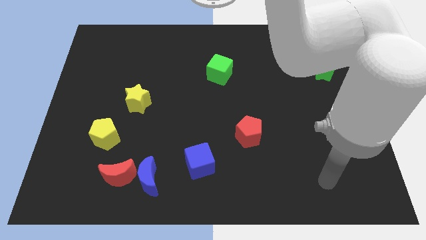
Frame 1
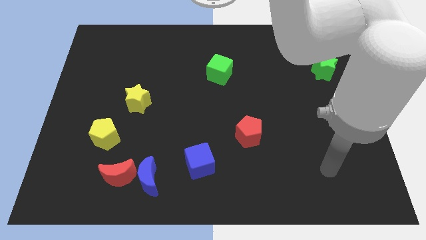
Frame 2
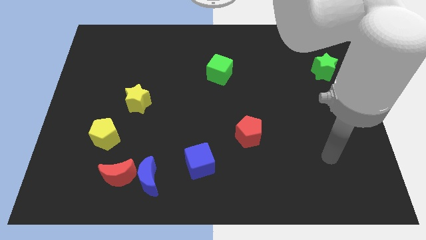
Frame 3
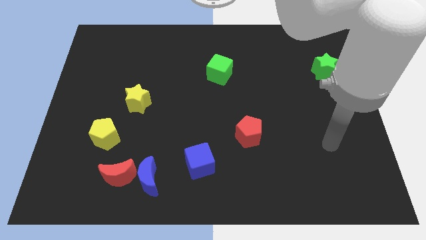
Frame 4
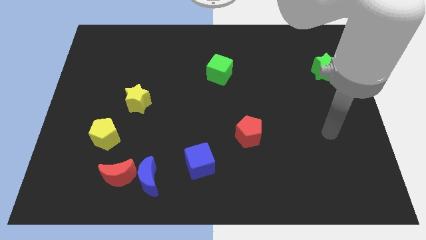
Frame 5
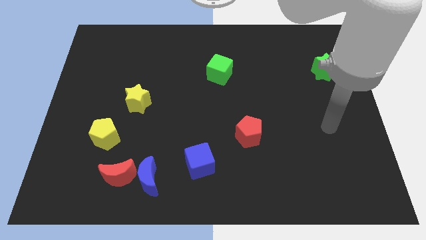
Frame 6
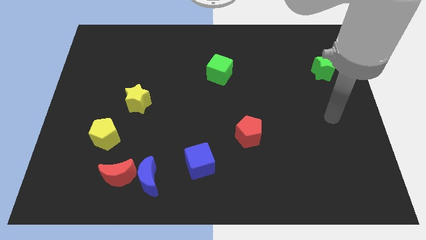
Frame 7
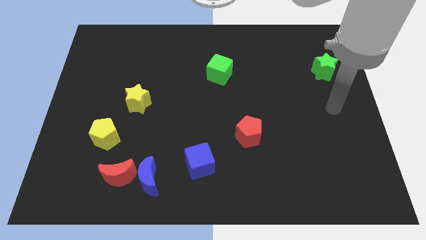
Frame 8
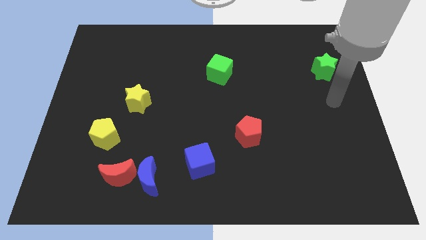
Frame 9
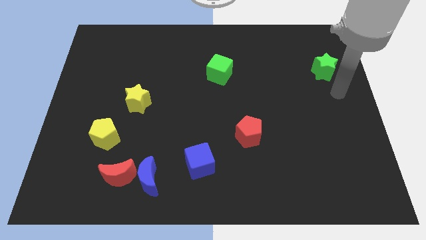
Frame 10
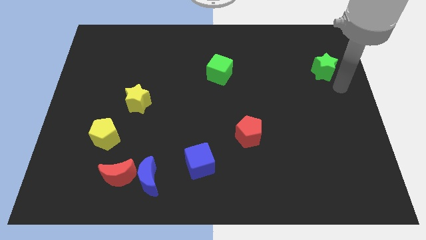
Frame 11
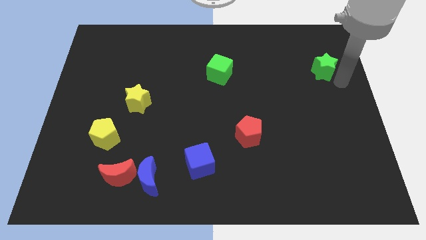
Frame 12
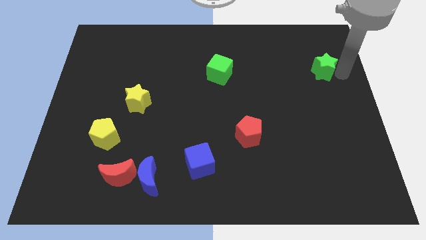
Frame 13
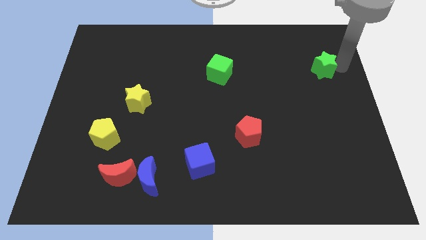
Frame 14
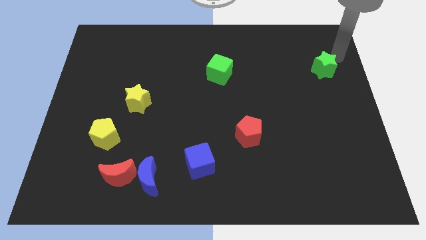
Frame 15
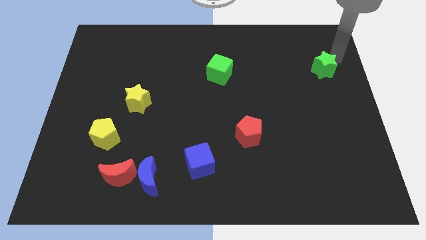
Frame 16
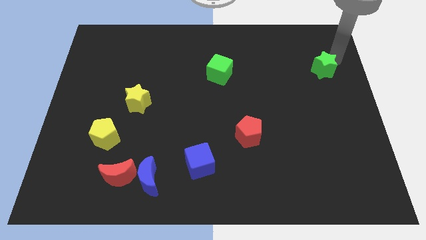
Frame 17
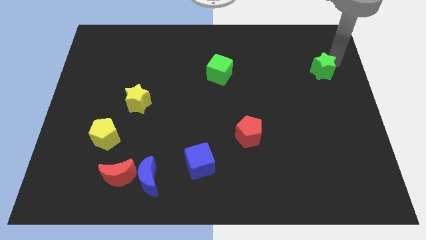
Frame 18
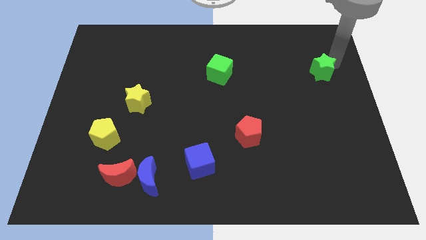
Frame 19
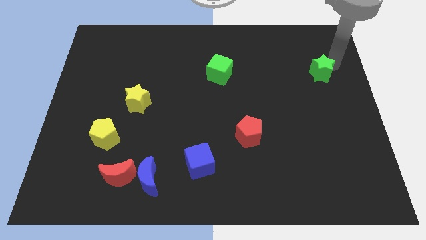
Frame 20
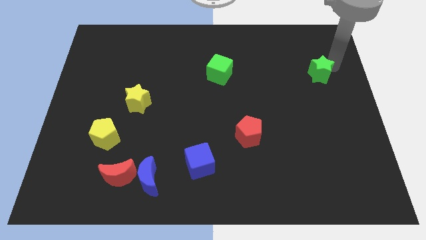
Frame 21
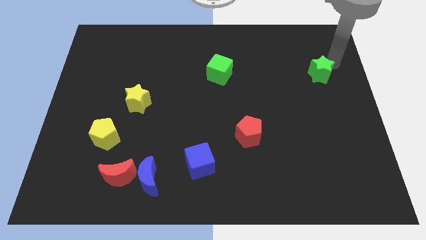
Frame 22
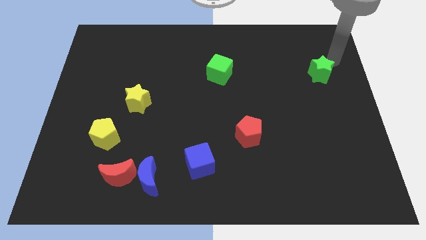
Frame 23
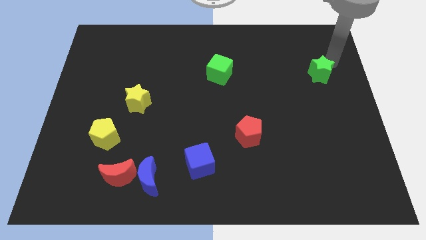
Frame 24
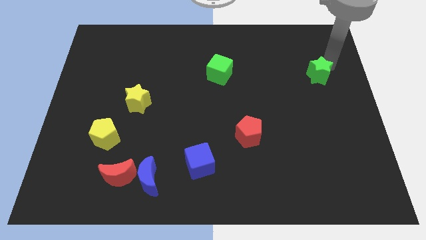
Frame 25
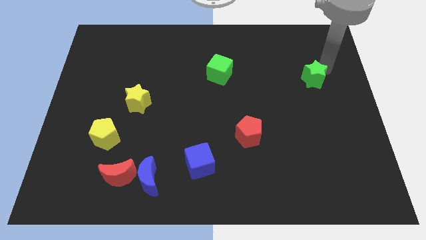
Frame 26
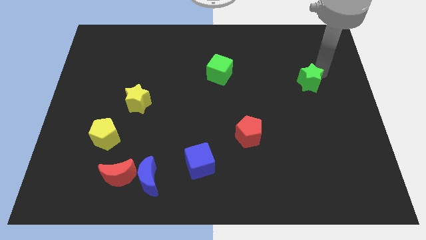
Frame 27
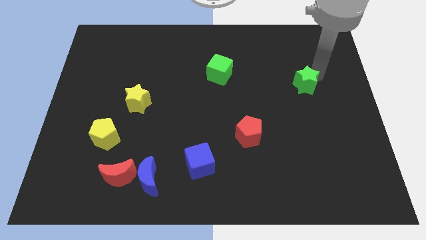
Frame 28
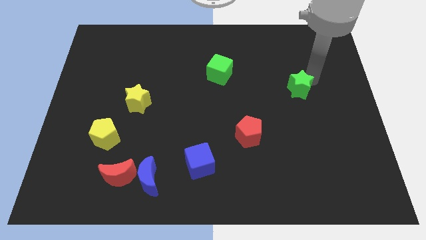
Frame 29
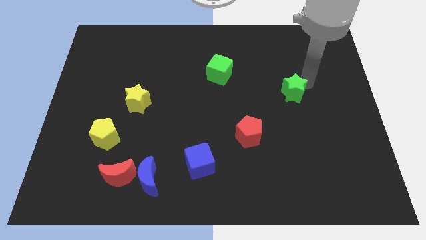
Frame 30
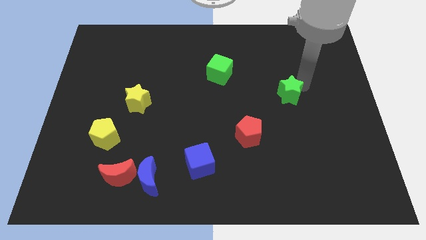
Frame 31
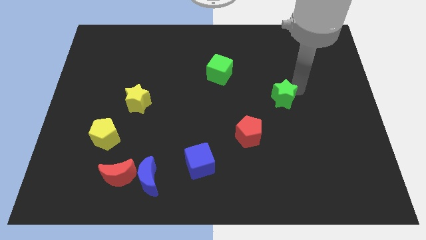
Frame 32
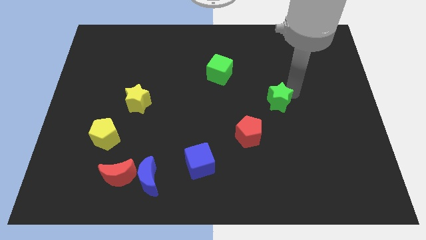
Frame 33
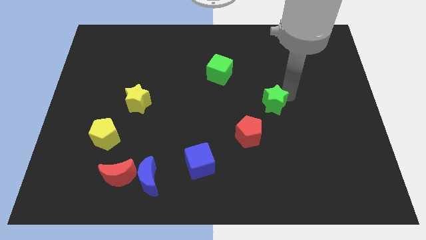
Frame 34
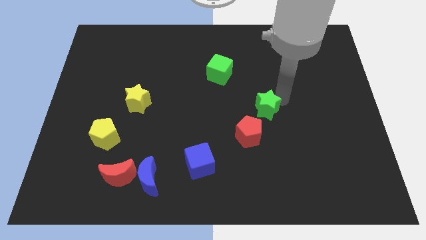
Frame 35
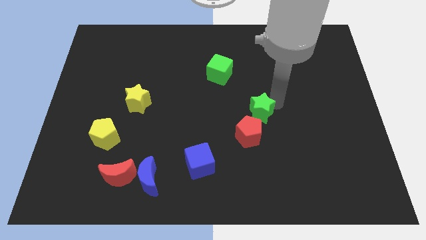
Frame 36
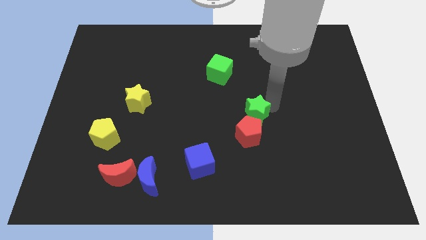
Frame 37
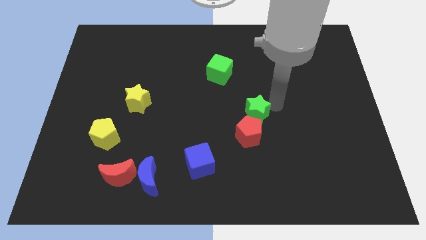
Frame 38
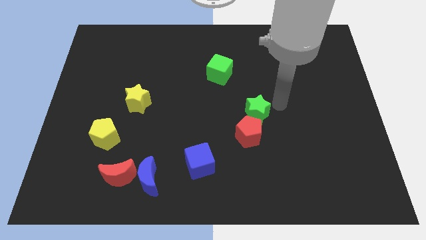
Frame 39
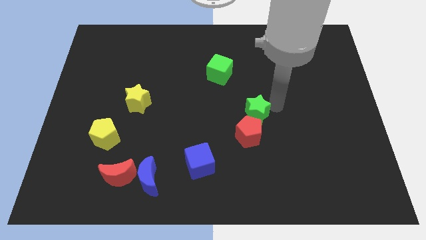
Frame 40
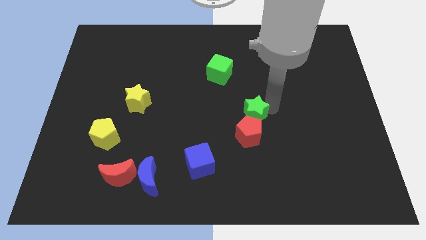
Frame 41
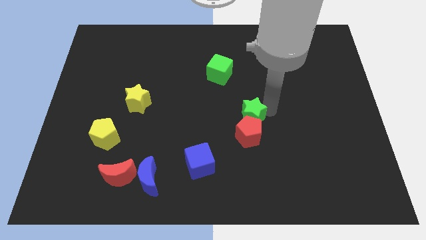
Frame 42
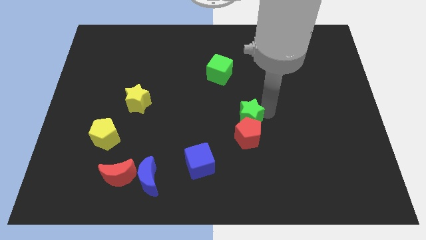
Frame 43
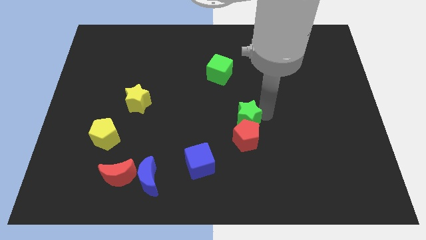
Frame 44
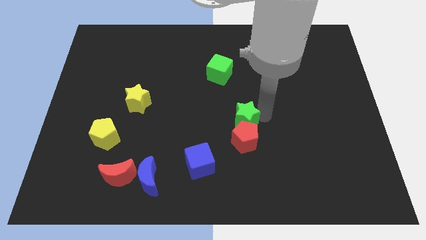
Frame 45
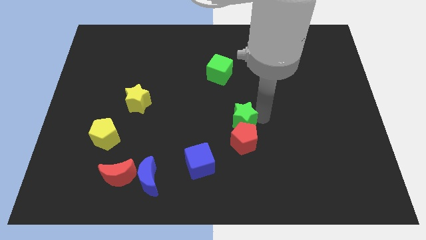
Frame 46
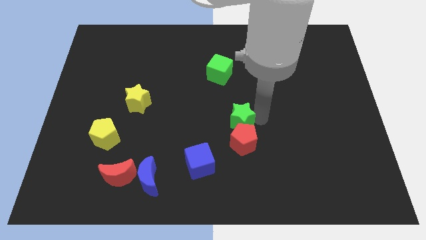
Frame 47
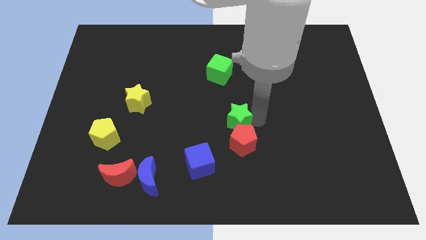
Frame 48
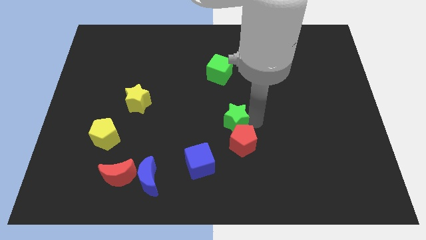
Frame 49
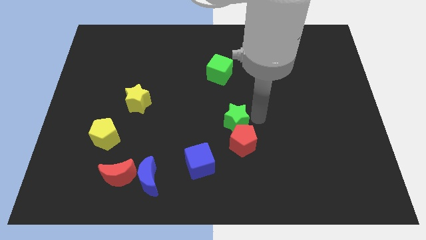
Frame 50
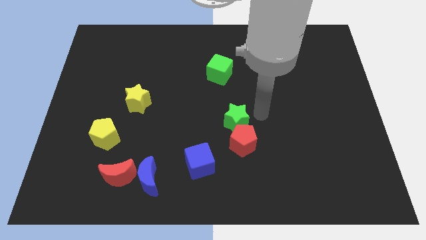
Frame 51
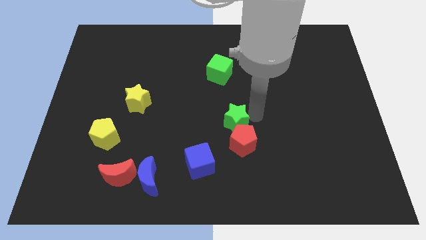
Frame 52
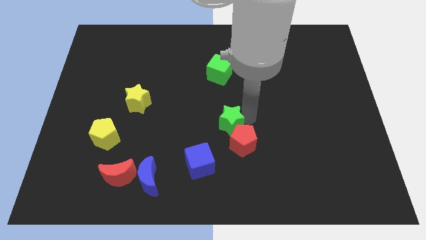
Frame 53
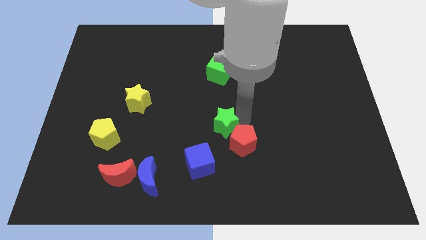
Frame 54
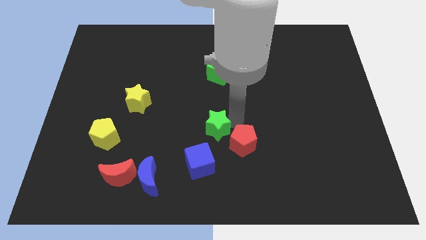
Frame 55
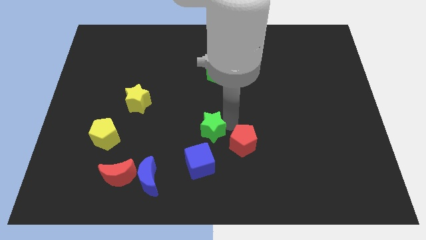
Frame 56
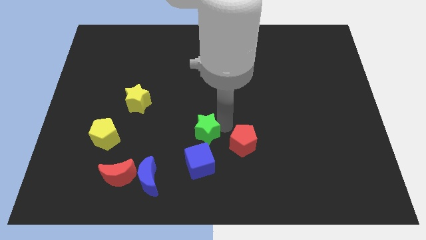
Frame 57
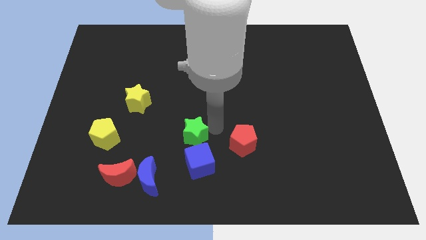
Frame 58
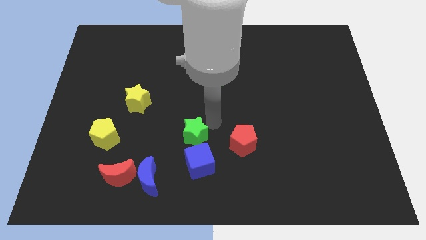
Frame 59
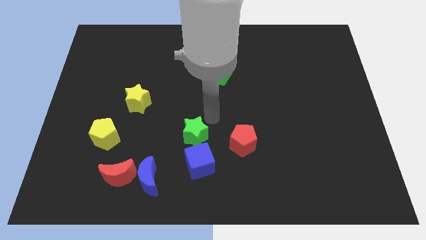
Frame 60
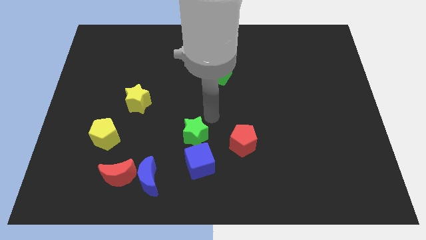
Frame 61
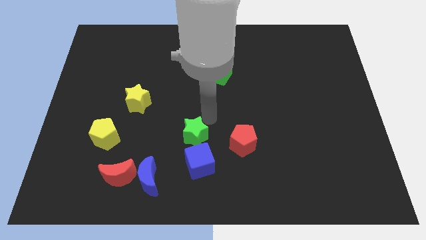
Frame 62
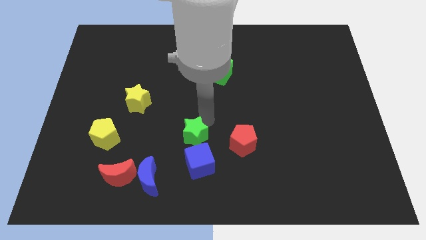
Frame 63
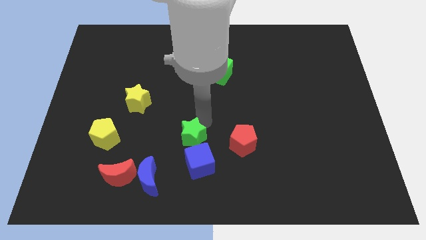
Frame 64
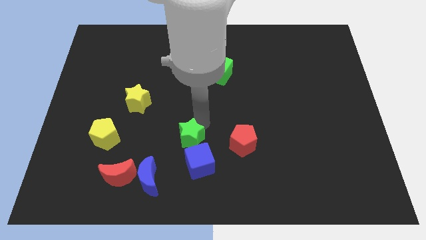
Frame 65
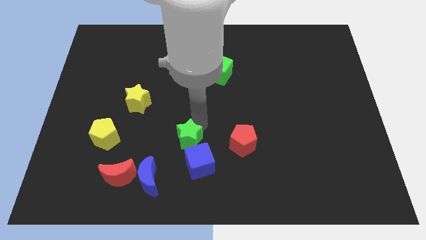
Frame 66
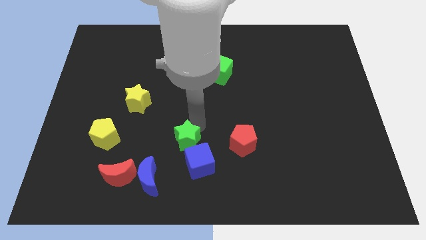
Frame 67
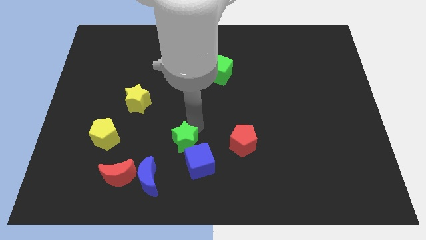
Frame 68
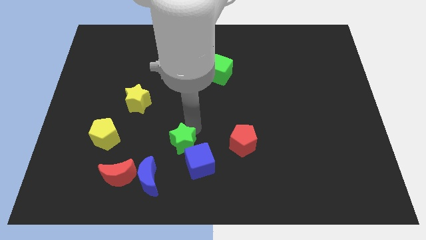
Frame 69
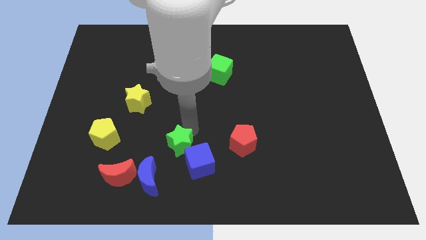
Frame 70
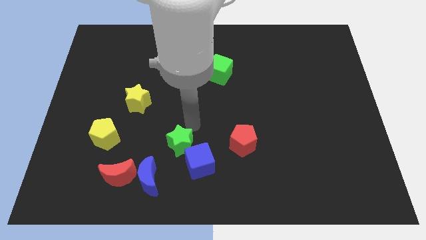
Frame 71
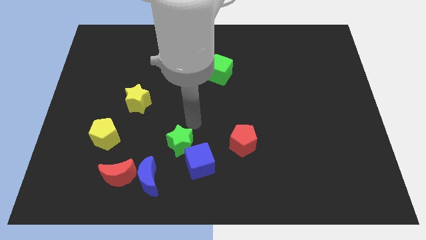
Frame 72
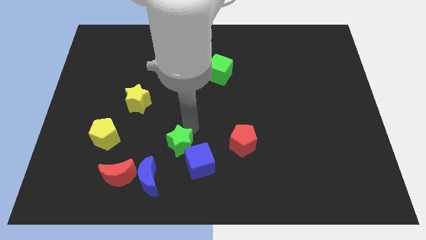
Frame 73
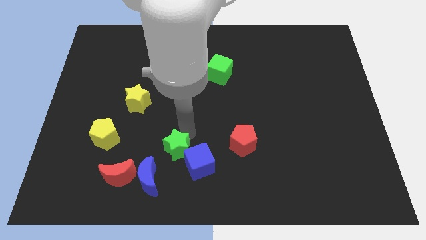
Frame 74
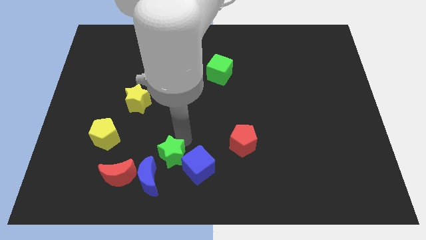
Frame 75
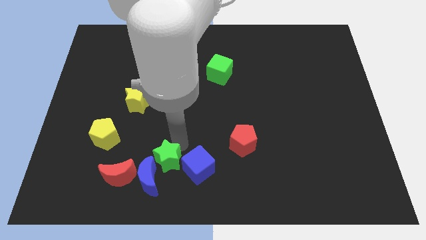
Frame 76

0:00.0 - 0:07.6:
slide the green star to the blue moon
